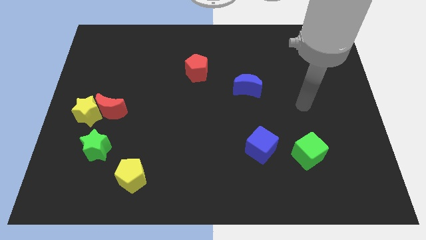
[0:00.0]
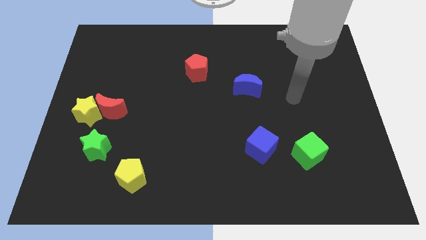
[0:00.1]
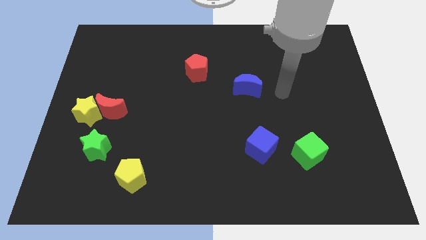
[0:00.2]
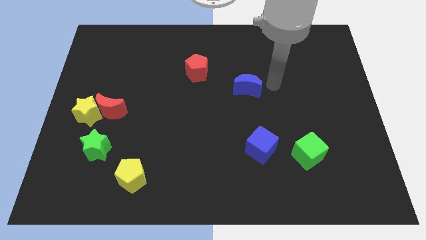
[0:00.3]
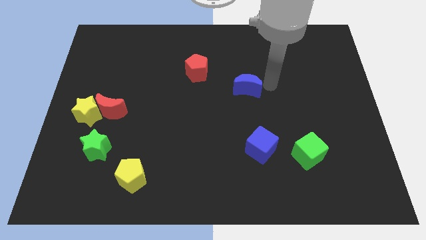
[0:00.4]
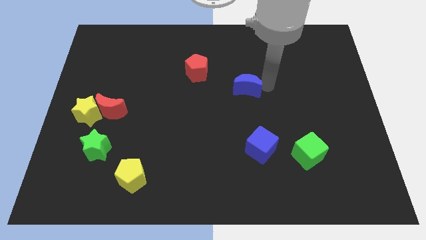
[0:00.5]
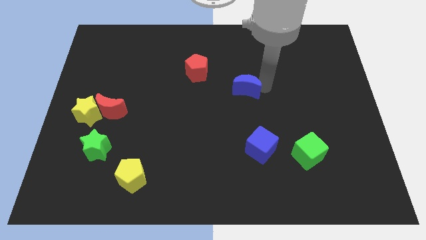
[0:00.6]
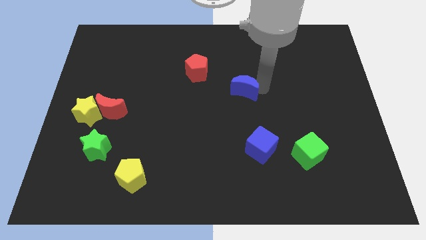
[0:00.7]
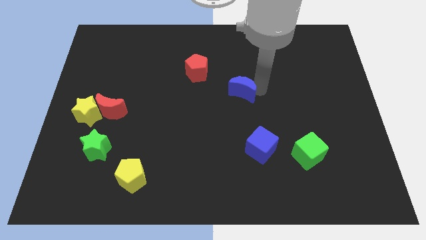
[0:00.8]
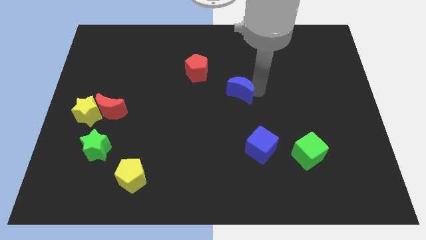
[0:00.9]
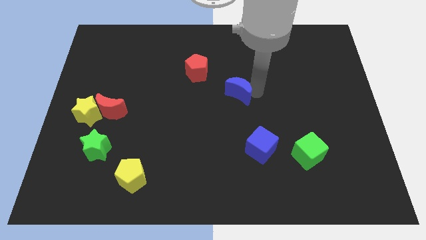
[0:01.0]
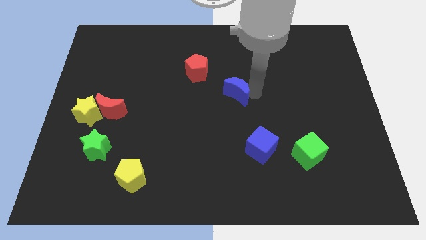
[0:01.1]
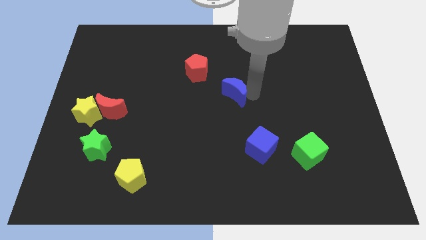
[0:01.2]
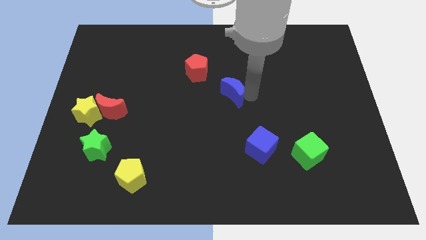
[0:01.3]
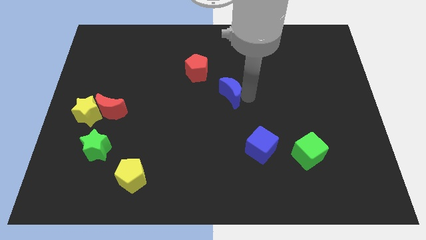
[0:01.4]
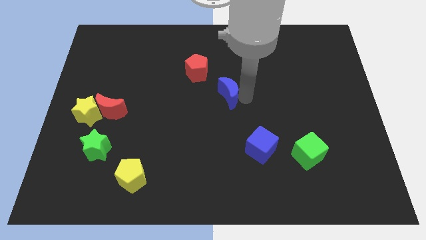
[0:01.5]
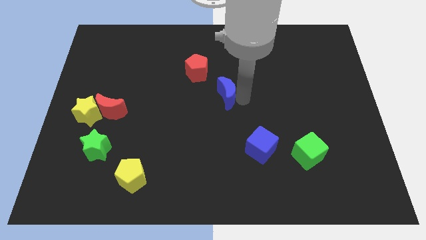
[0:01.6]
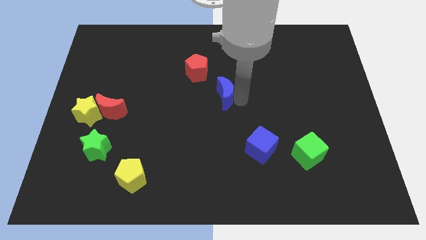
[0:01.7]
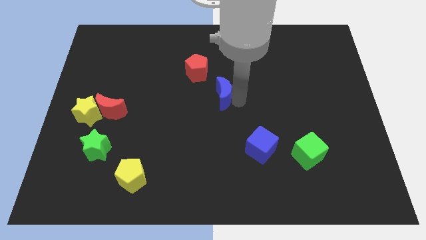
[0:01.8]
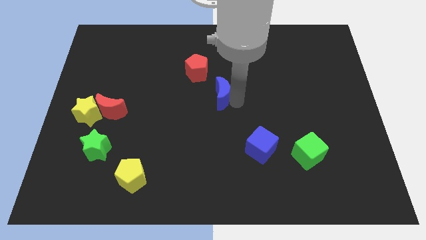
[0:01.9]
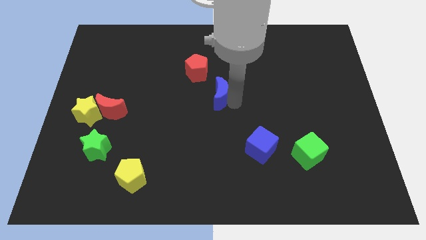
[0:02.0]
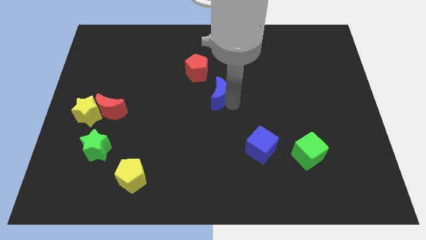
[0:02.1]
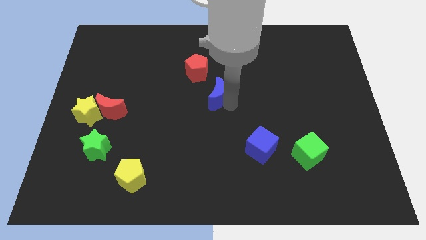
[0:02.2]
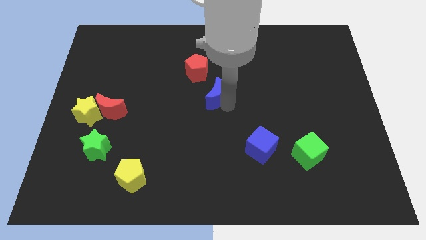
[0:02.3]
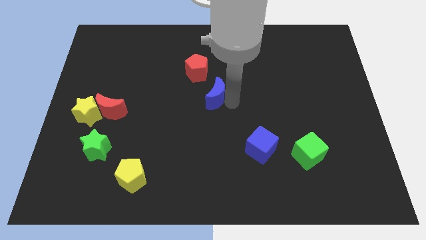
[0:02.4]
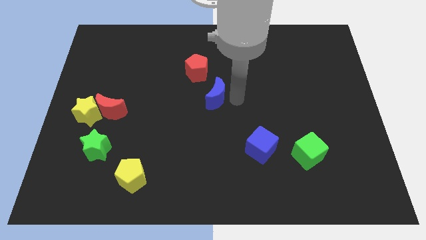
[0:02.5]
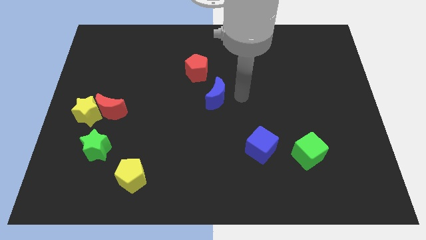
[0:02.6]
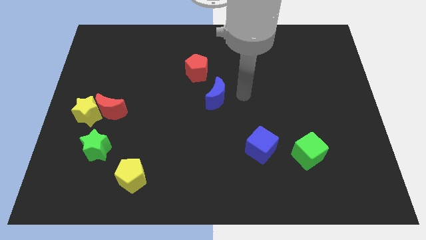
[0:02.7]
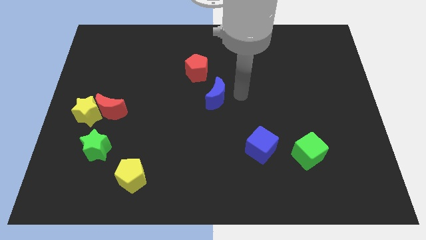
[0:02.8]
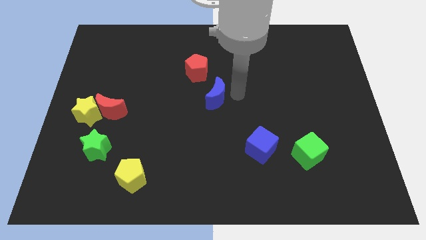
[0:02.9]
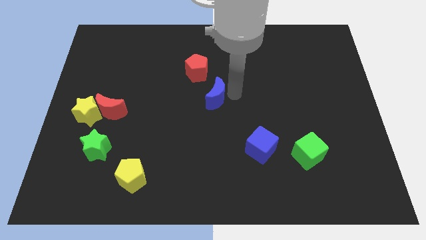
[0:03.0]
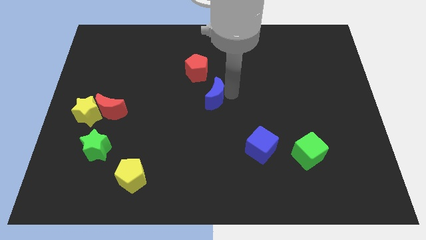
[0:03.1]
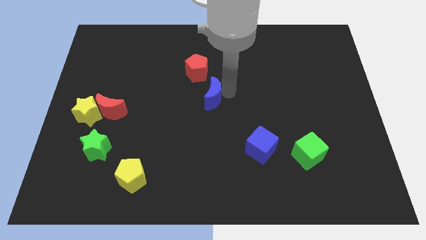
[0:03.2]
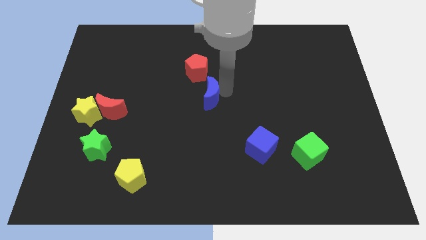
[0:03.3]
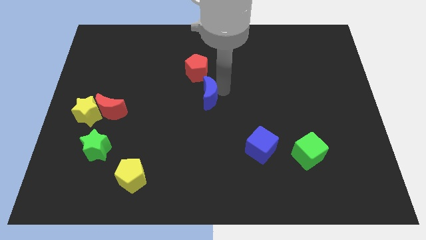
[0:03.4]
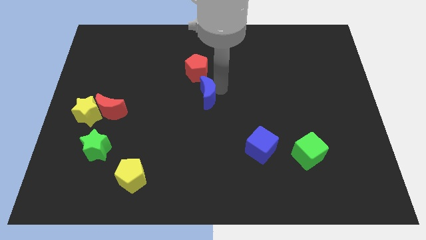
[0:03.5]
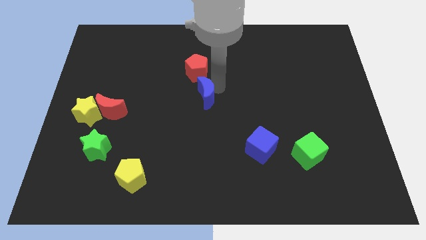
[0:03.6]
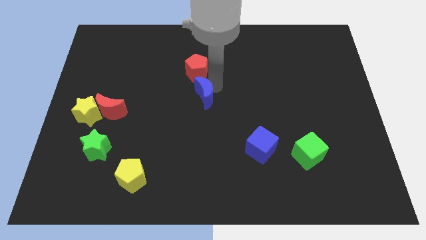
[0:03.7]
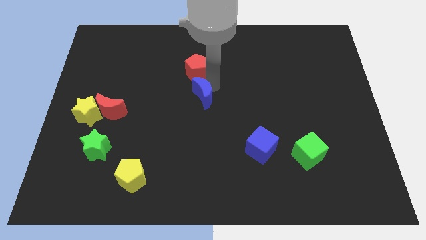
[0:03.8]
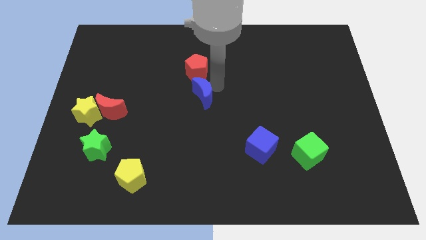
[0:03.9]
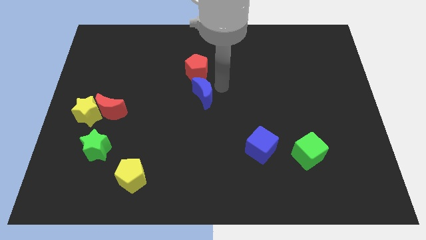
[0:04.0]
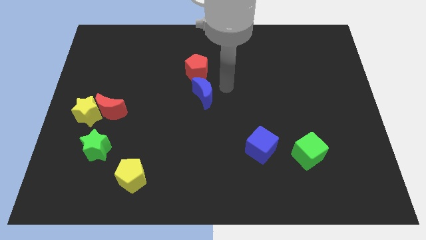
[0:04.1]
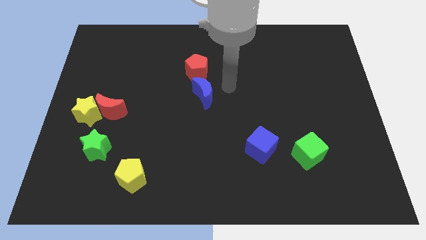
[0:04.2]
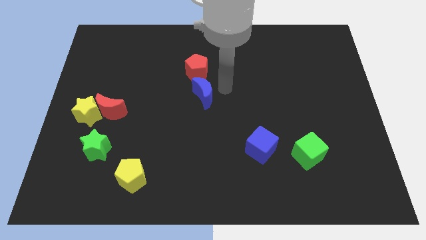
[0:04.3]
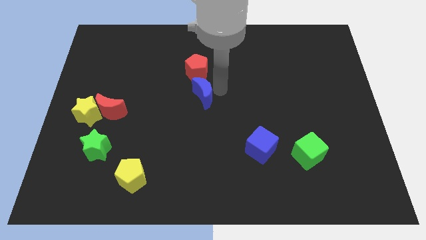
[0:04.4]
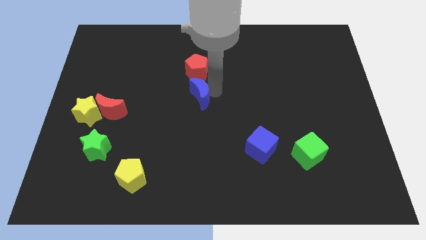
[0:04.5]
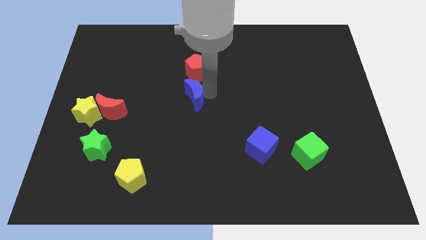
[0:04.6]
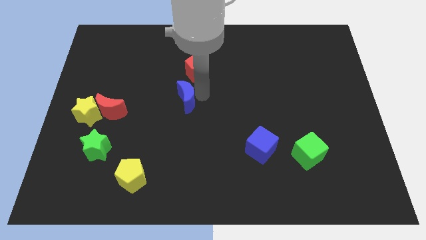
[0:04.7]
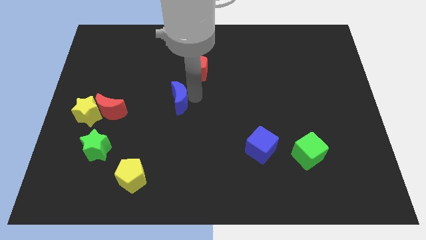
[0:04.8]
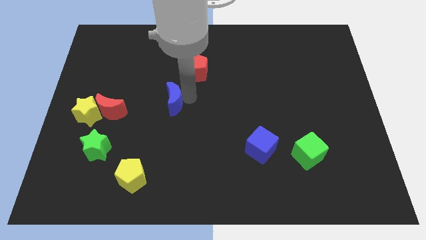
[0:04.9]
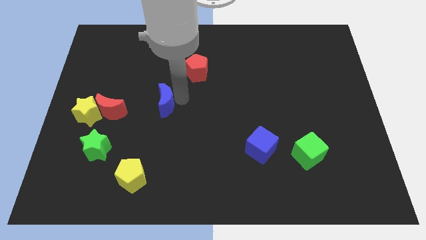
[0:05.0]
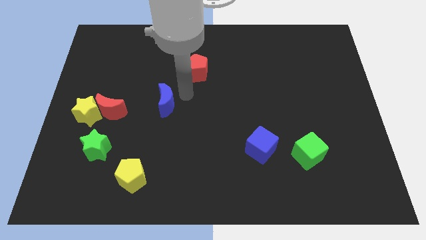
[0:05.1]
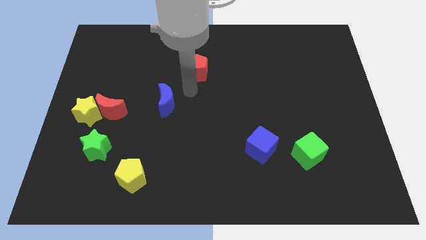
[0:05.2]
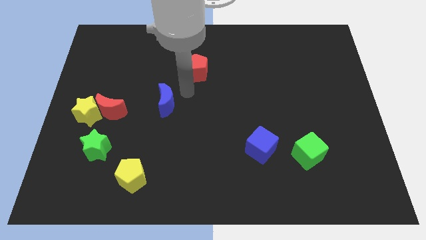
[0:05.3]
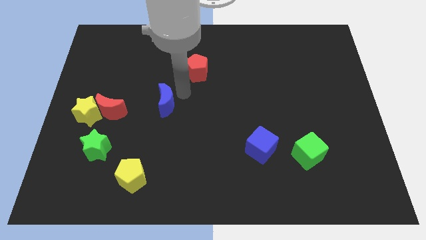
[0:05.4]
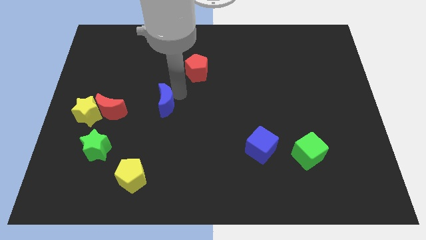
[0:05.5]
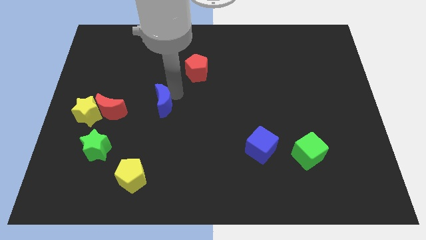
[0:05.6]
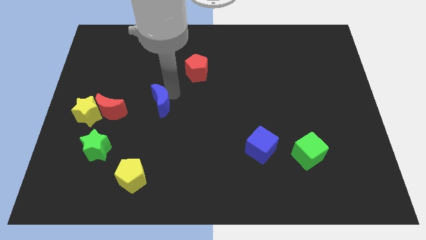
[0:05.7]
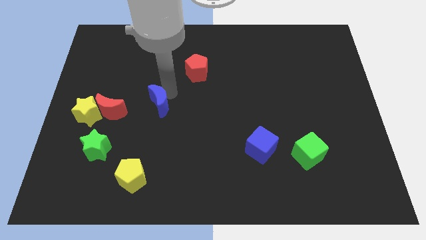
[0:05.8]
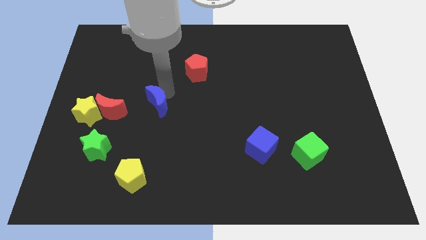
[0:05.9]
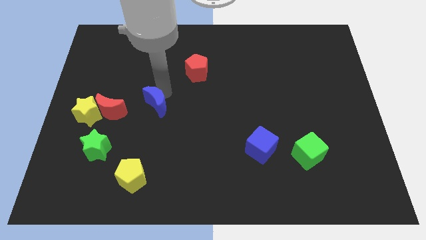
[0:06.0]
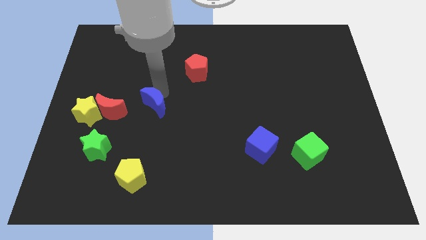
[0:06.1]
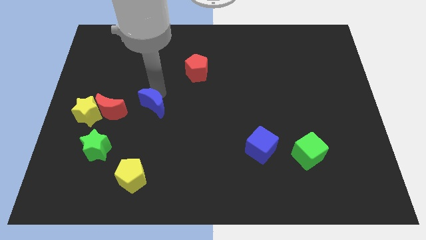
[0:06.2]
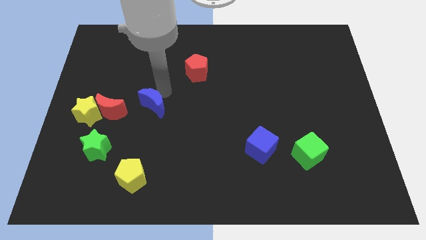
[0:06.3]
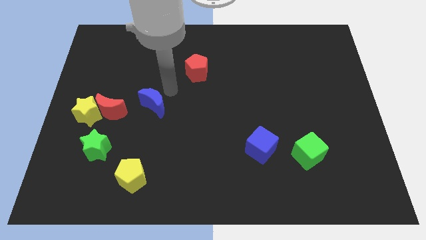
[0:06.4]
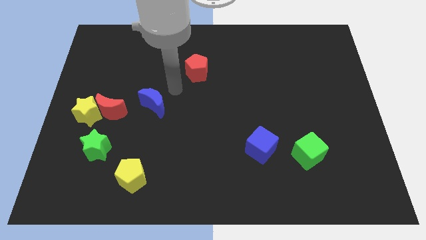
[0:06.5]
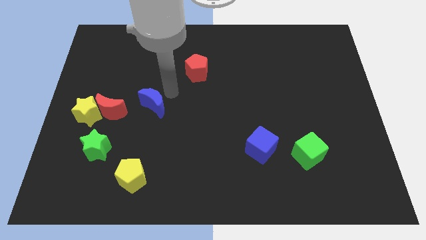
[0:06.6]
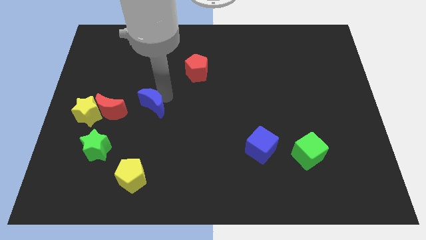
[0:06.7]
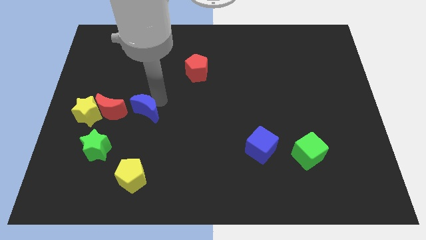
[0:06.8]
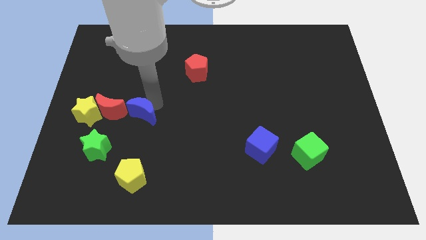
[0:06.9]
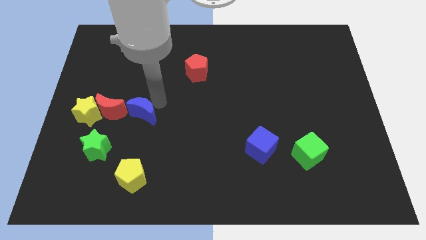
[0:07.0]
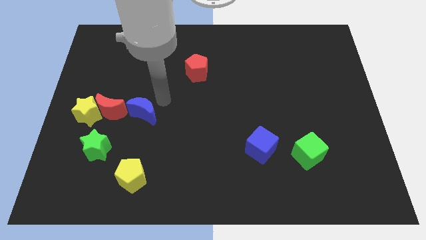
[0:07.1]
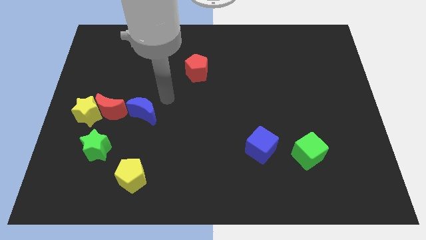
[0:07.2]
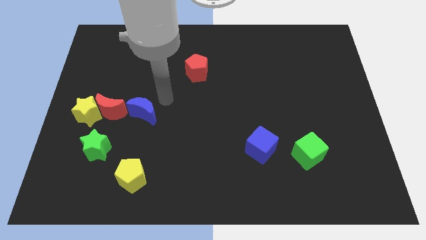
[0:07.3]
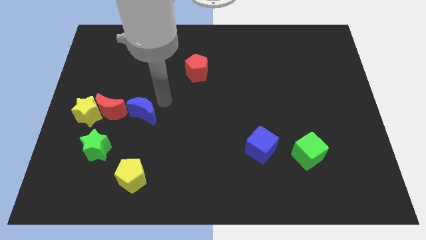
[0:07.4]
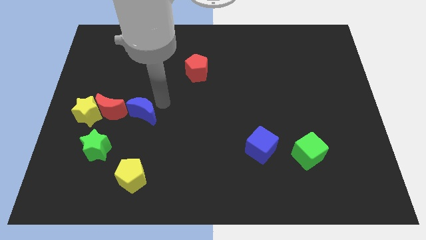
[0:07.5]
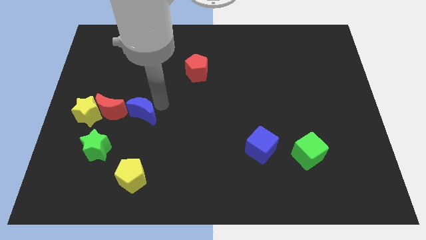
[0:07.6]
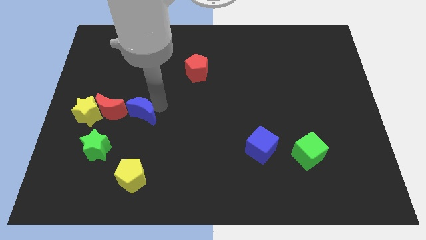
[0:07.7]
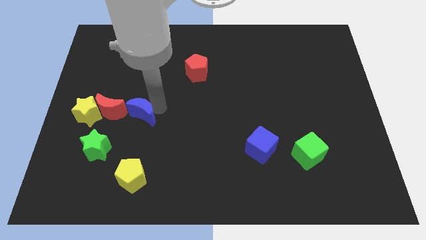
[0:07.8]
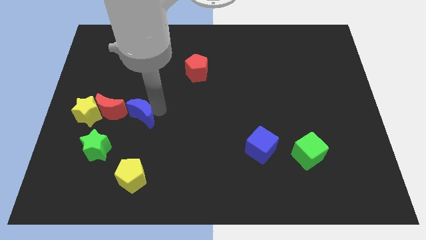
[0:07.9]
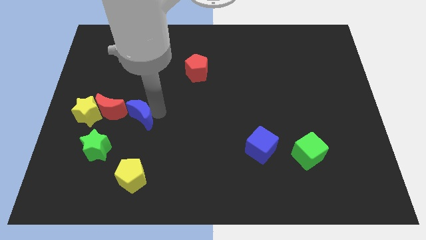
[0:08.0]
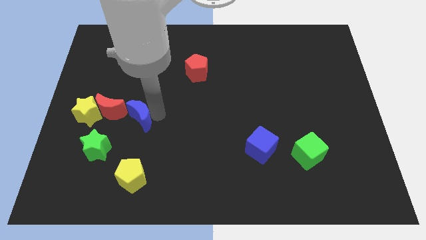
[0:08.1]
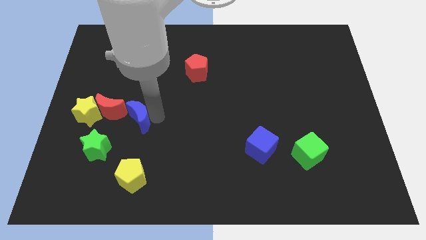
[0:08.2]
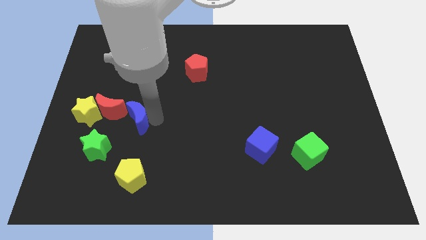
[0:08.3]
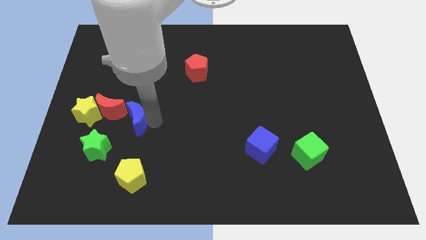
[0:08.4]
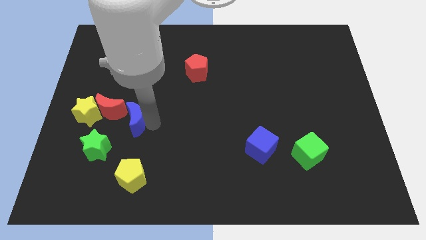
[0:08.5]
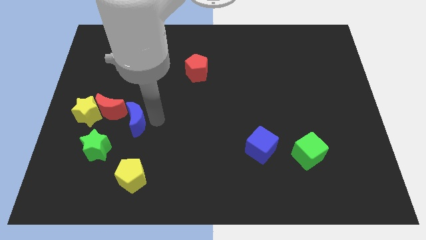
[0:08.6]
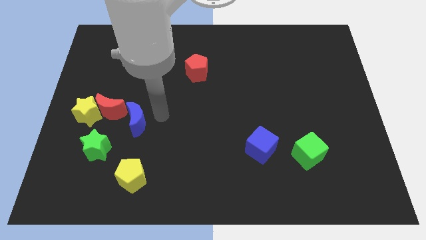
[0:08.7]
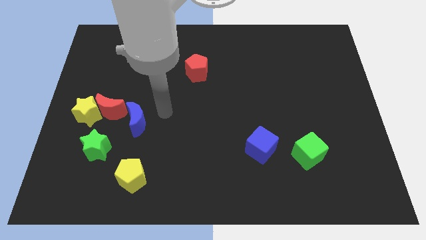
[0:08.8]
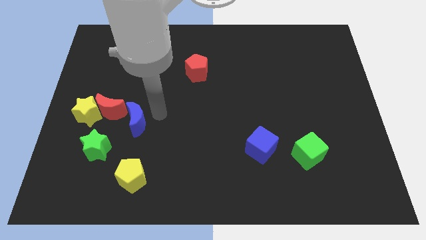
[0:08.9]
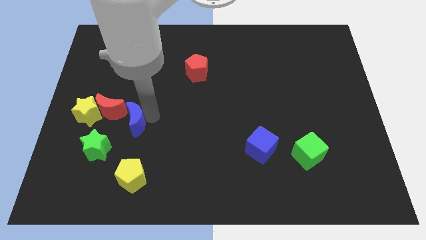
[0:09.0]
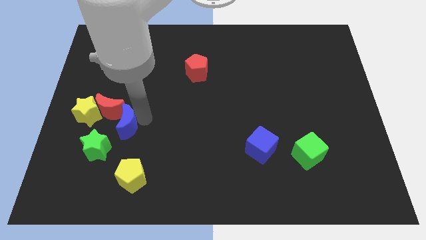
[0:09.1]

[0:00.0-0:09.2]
slide the blue moon diagonally down and to the right of the yellow star
